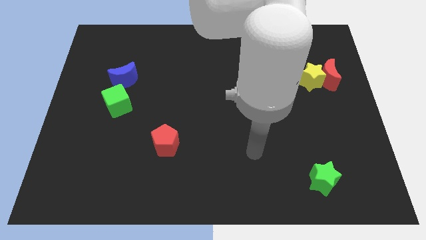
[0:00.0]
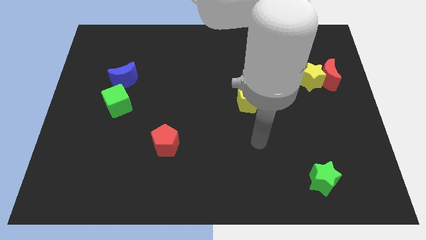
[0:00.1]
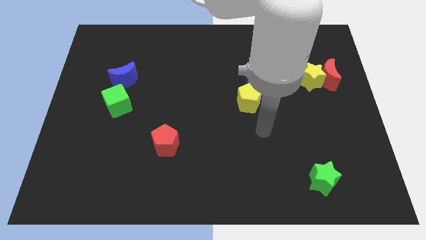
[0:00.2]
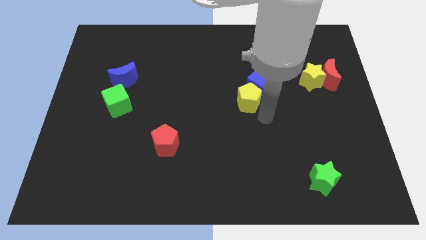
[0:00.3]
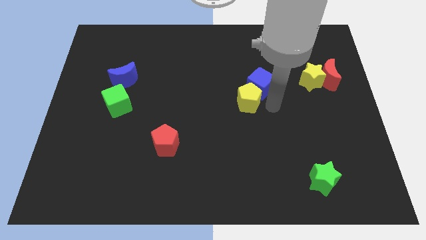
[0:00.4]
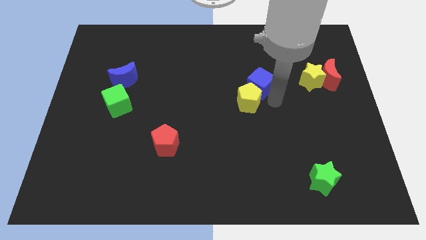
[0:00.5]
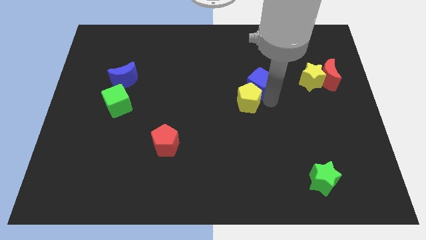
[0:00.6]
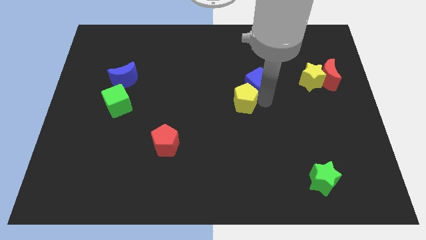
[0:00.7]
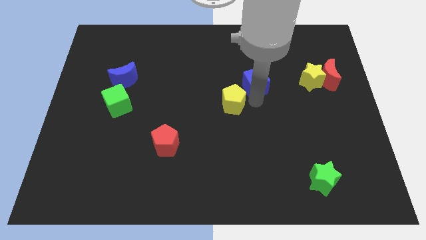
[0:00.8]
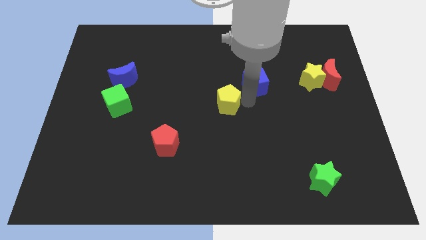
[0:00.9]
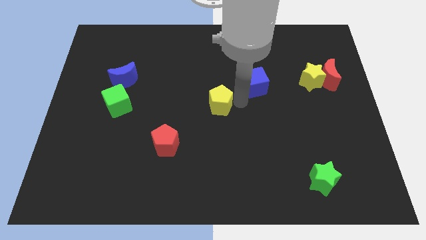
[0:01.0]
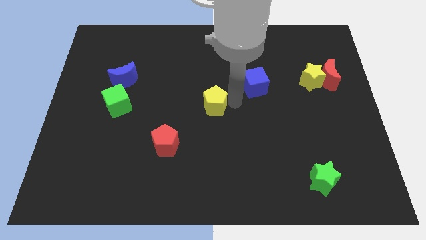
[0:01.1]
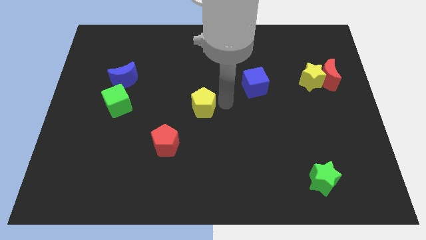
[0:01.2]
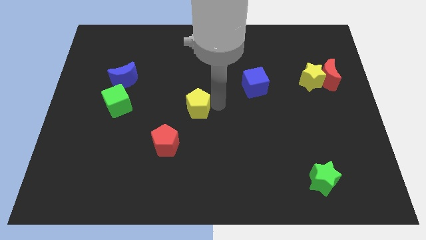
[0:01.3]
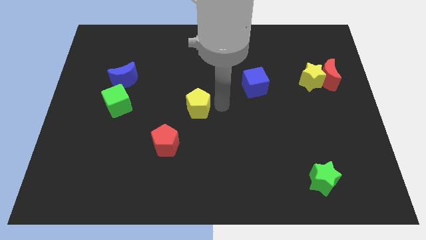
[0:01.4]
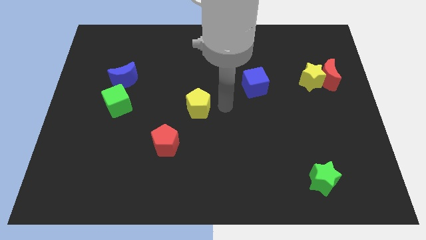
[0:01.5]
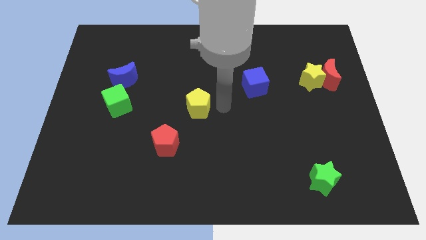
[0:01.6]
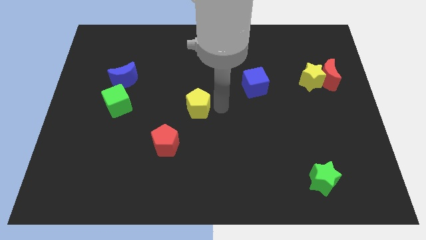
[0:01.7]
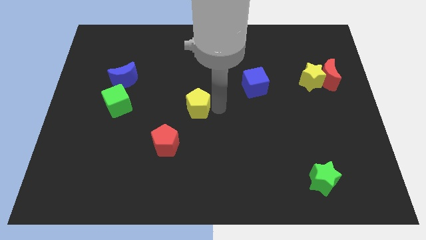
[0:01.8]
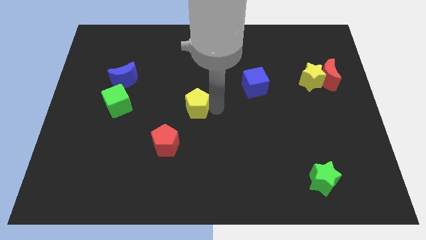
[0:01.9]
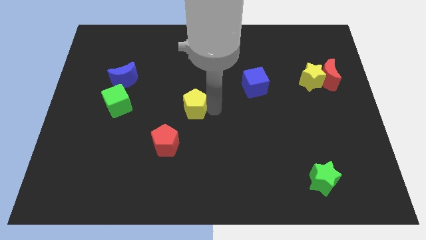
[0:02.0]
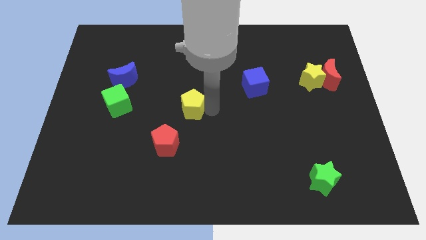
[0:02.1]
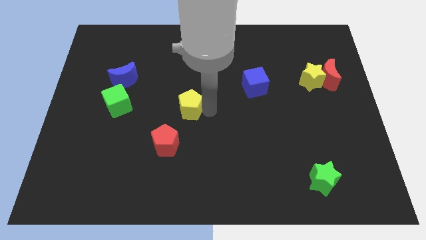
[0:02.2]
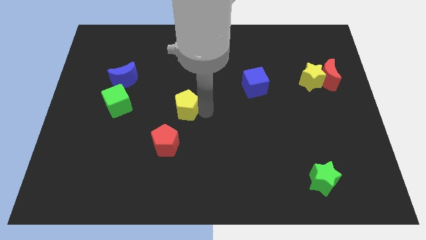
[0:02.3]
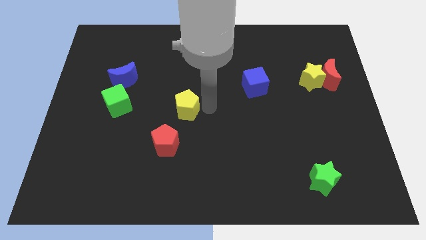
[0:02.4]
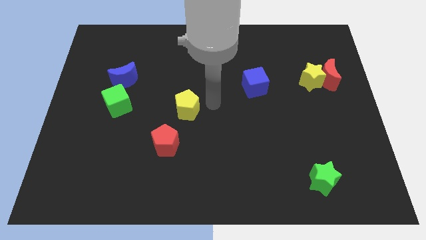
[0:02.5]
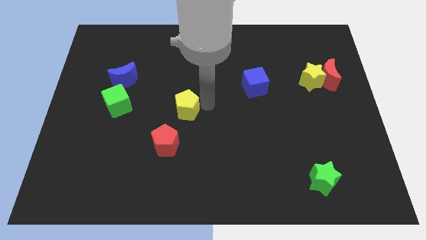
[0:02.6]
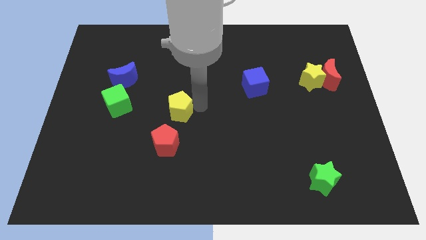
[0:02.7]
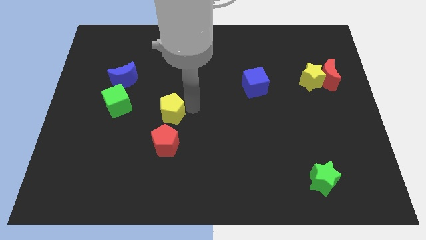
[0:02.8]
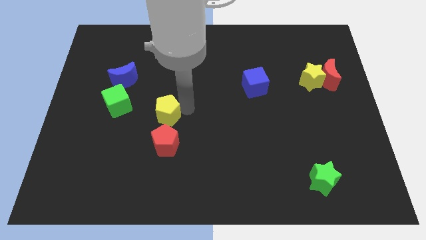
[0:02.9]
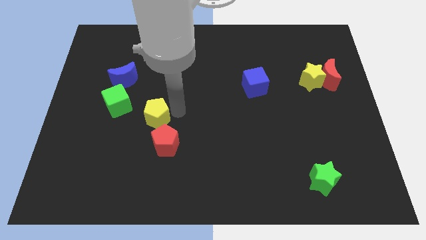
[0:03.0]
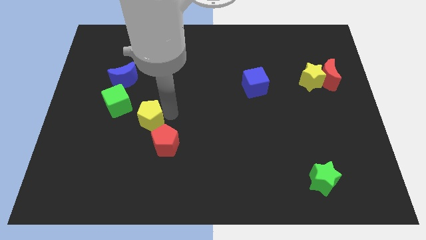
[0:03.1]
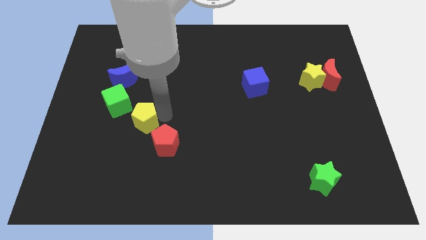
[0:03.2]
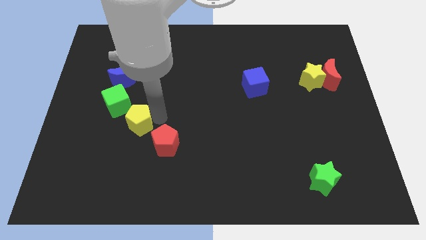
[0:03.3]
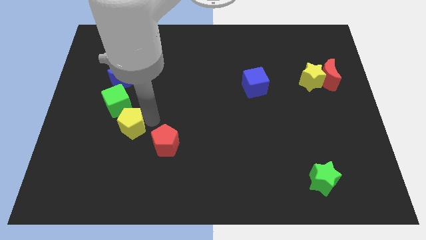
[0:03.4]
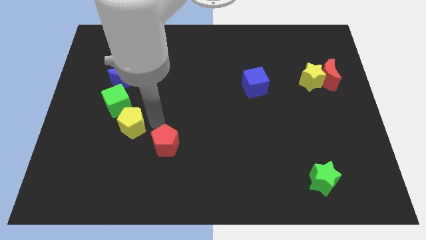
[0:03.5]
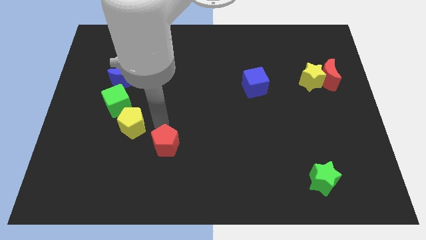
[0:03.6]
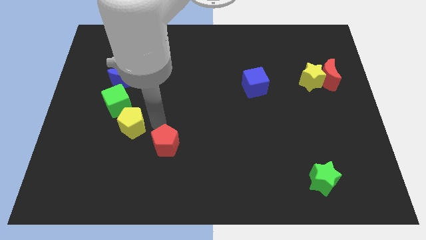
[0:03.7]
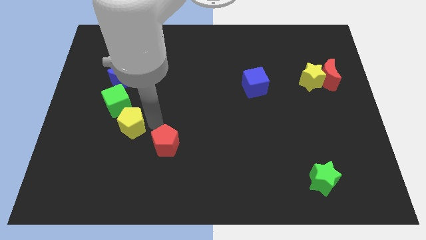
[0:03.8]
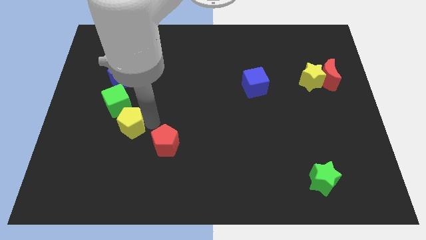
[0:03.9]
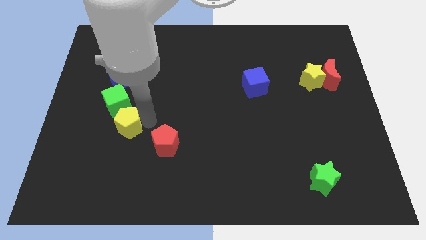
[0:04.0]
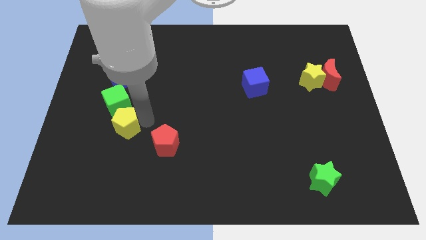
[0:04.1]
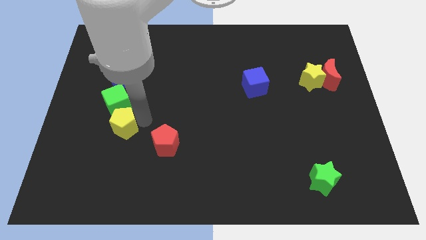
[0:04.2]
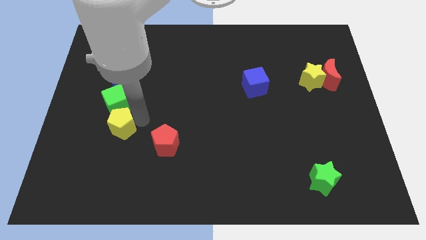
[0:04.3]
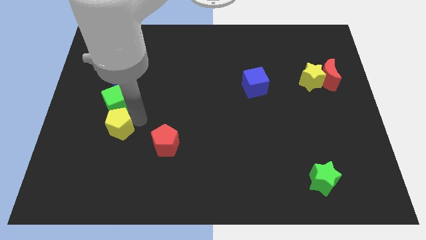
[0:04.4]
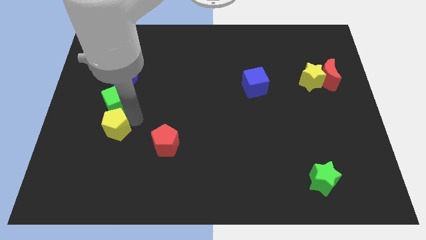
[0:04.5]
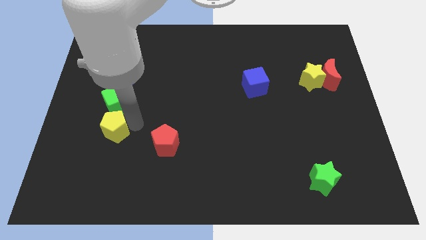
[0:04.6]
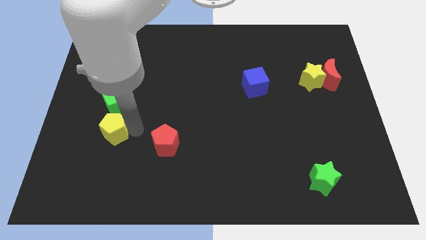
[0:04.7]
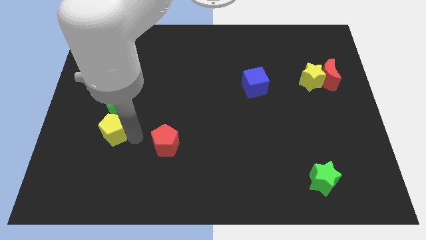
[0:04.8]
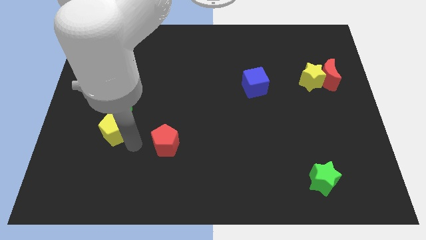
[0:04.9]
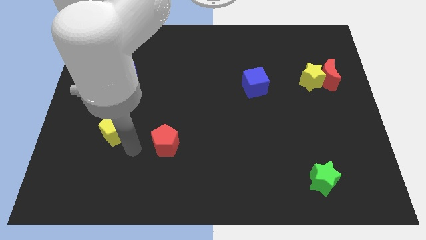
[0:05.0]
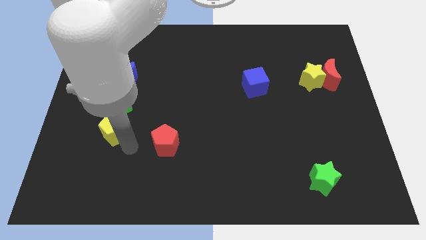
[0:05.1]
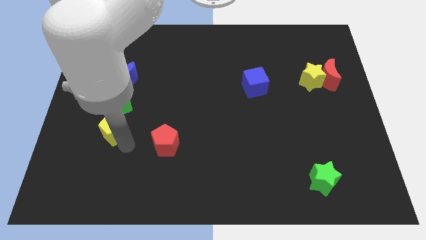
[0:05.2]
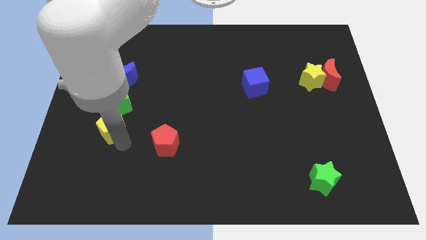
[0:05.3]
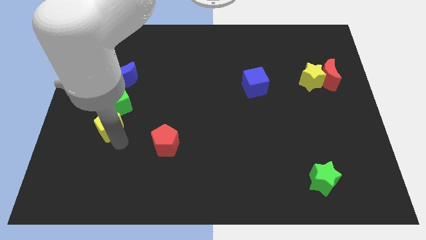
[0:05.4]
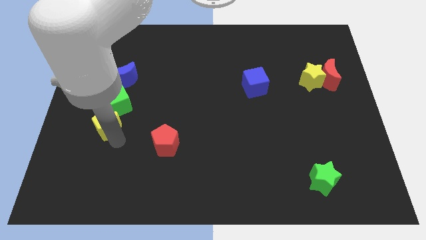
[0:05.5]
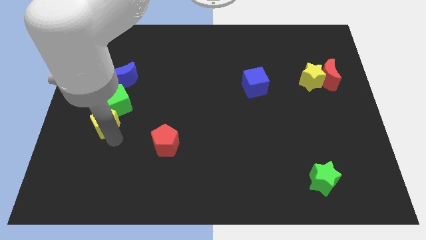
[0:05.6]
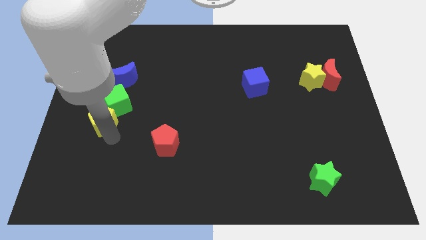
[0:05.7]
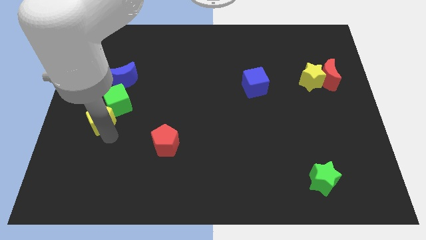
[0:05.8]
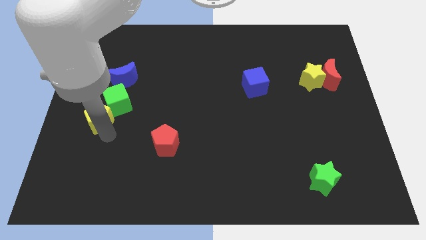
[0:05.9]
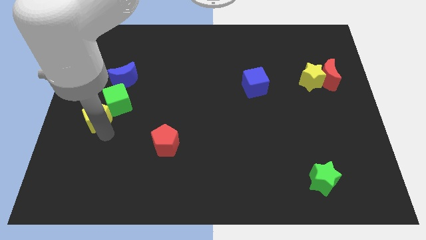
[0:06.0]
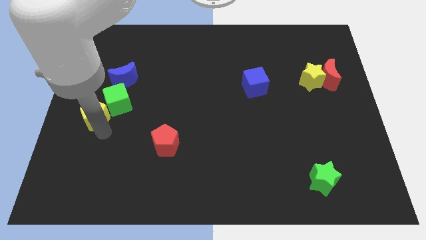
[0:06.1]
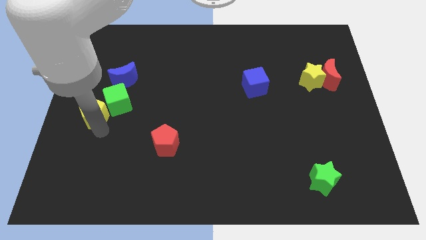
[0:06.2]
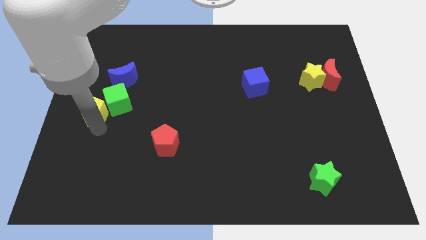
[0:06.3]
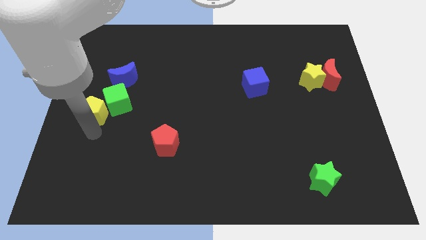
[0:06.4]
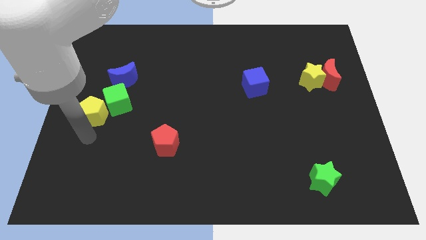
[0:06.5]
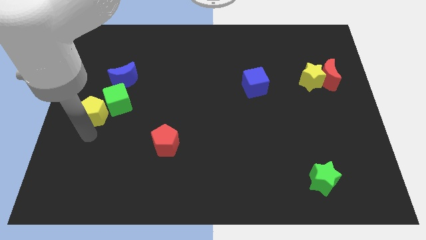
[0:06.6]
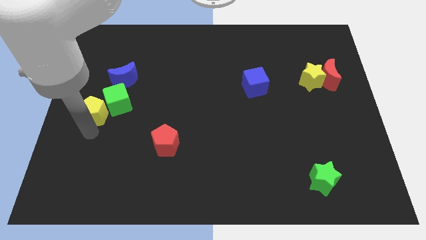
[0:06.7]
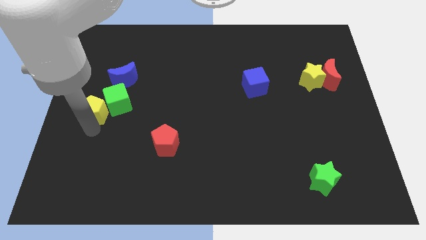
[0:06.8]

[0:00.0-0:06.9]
slide the yellow pentagon to the bottom left side of the blue moon

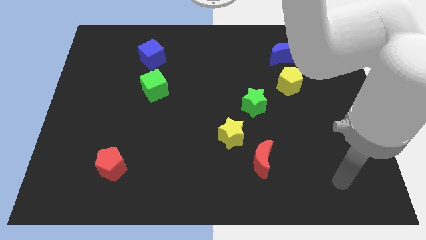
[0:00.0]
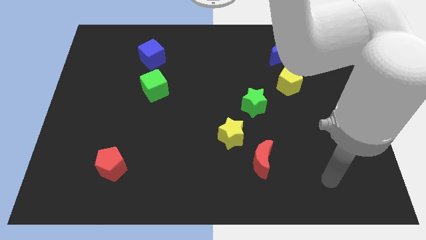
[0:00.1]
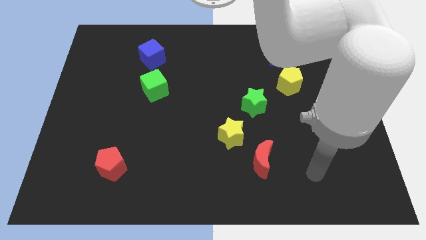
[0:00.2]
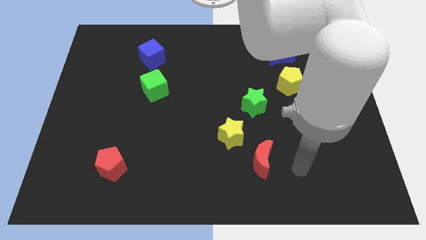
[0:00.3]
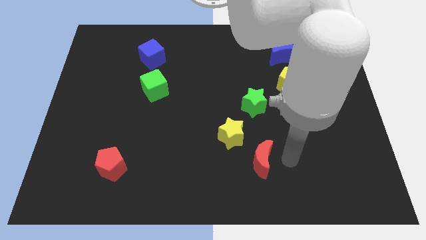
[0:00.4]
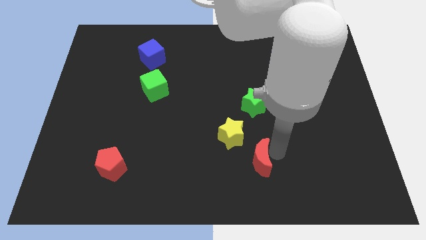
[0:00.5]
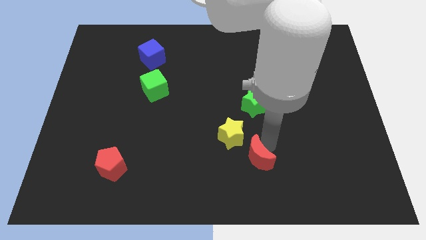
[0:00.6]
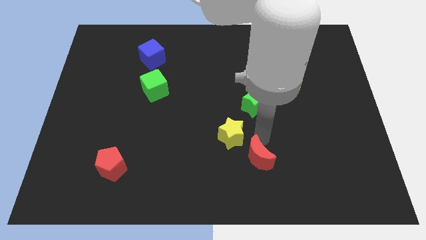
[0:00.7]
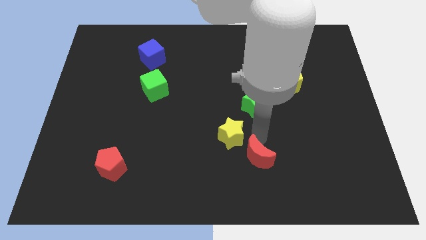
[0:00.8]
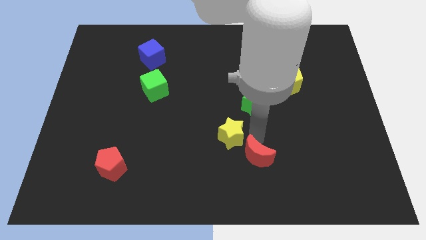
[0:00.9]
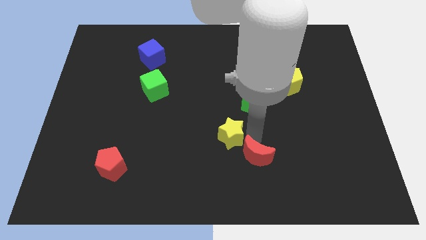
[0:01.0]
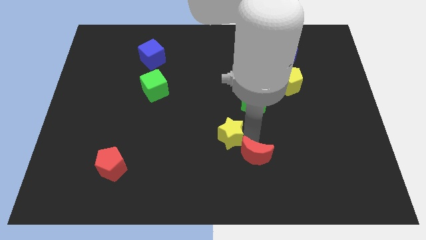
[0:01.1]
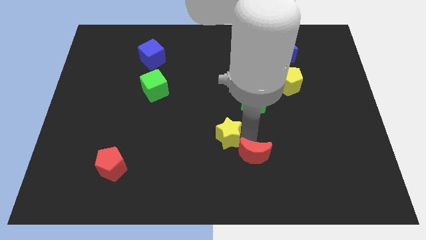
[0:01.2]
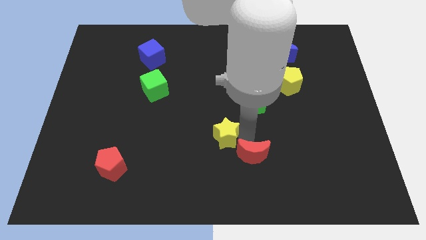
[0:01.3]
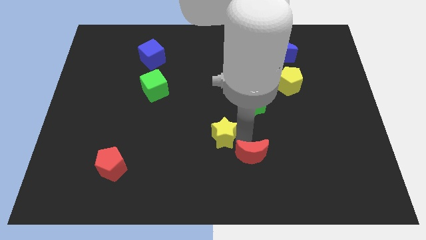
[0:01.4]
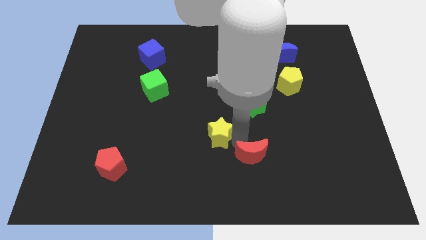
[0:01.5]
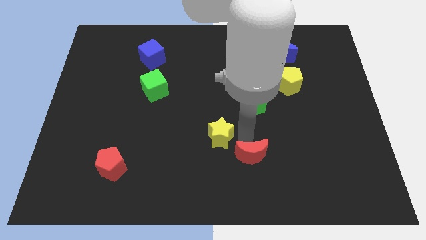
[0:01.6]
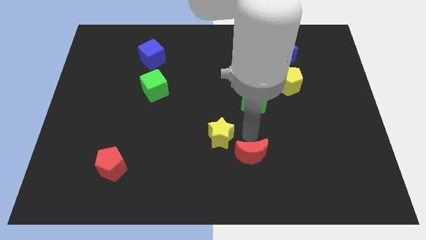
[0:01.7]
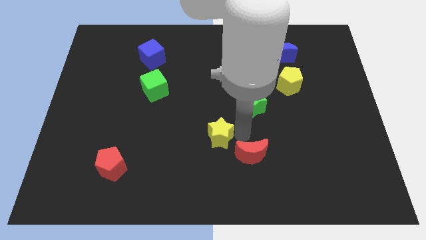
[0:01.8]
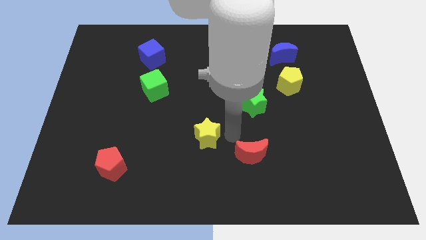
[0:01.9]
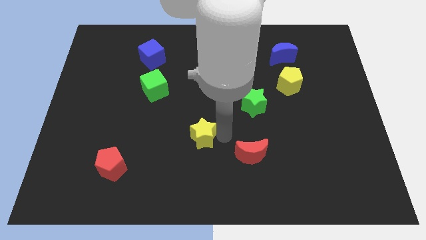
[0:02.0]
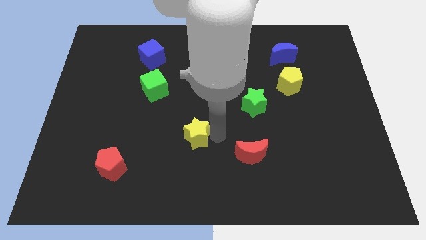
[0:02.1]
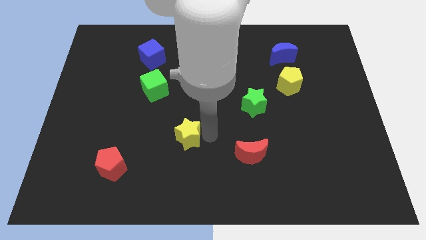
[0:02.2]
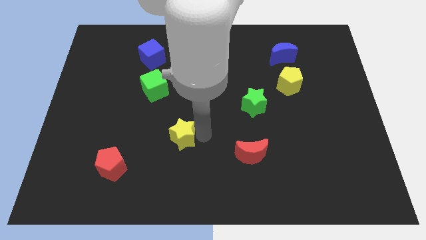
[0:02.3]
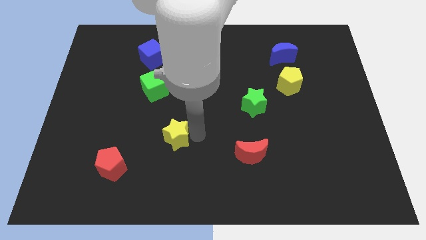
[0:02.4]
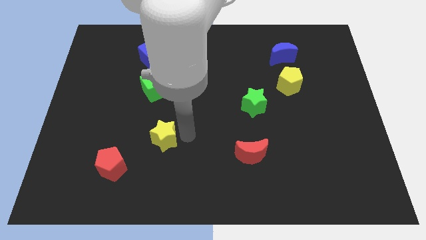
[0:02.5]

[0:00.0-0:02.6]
move the yellow star to the top right side of the red pentagon
